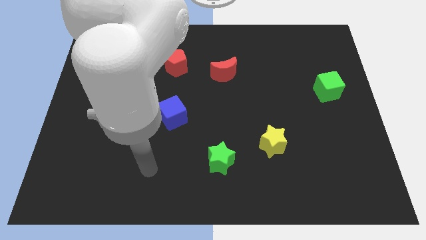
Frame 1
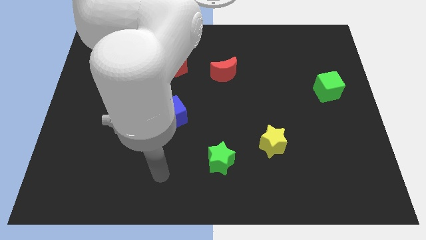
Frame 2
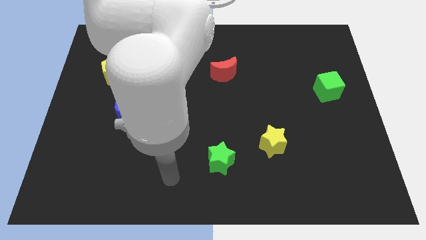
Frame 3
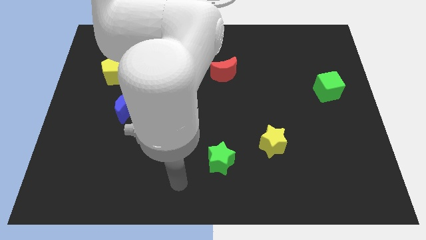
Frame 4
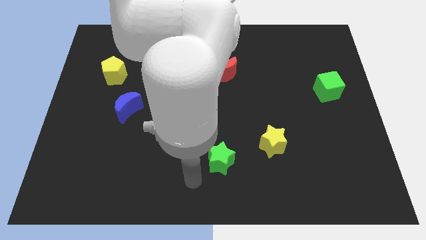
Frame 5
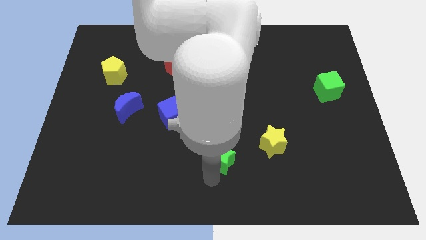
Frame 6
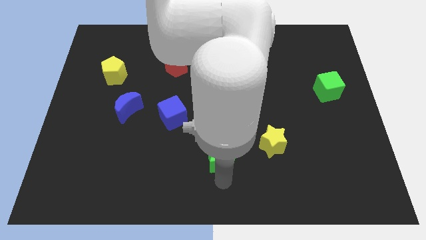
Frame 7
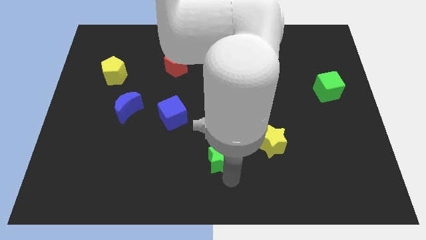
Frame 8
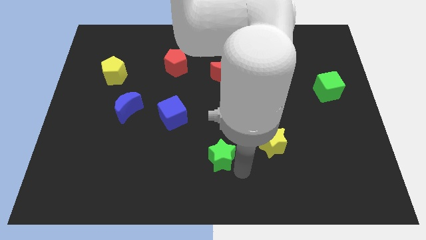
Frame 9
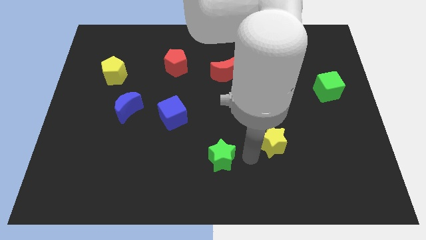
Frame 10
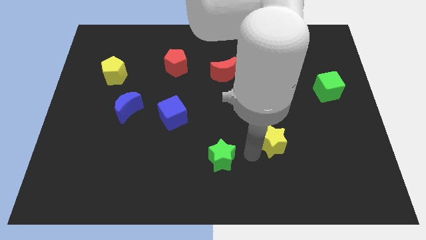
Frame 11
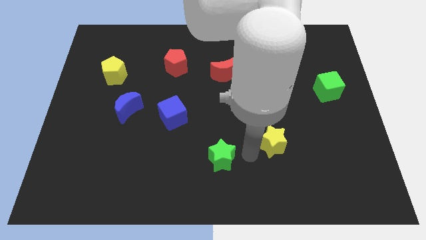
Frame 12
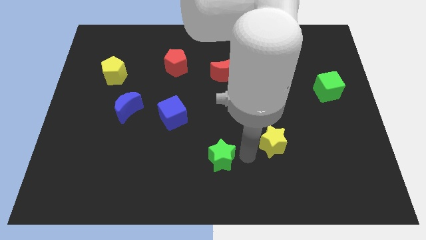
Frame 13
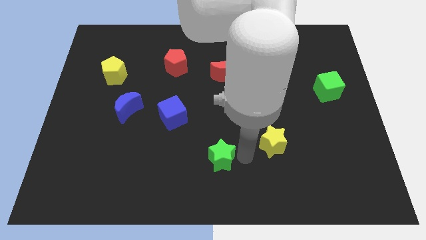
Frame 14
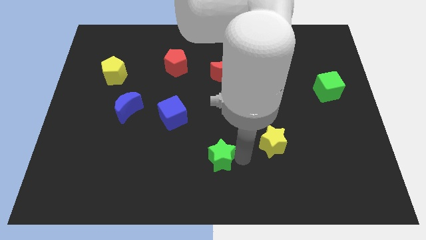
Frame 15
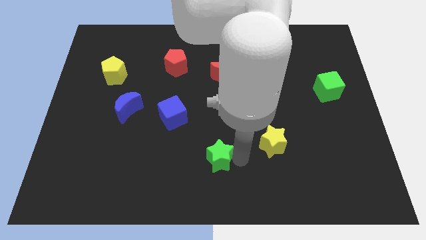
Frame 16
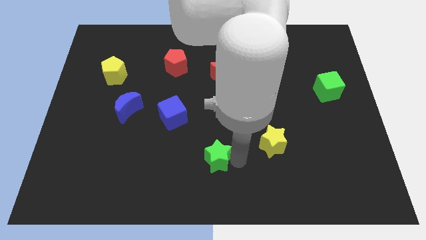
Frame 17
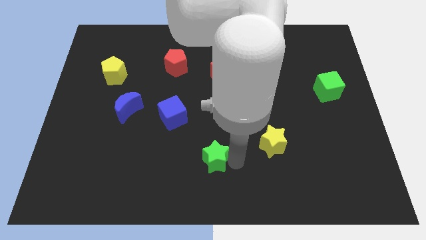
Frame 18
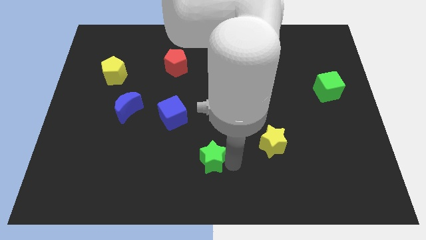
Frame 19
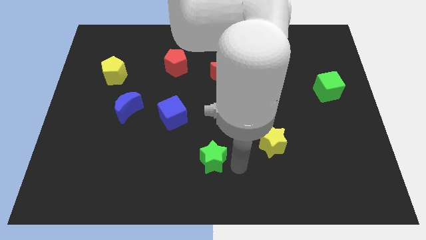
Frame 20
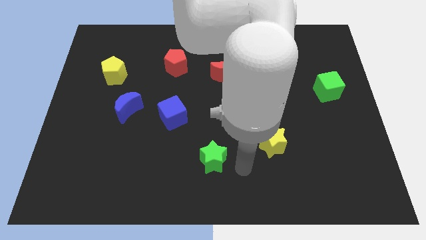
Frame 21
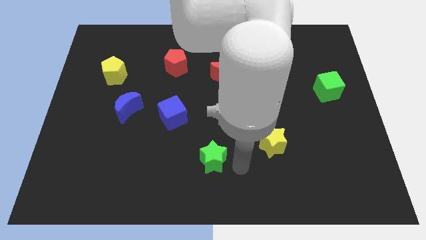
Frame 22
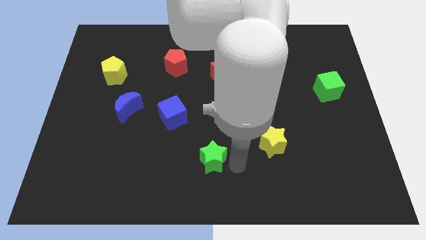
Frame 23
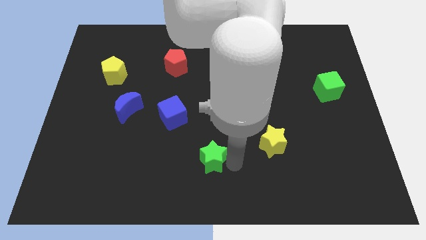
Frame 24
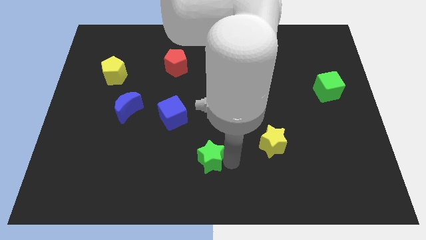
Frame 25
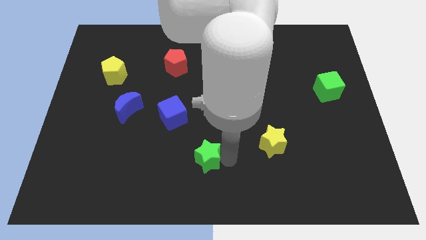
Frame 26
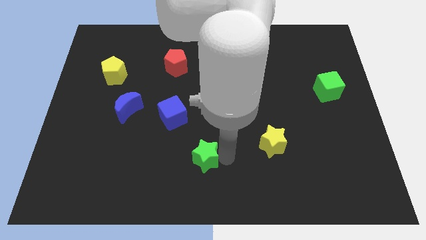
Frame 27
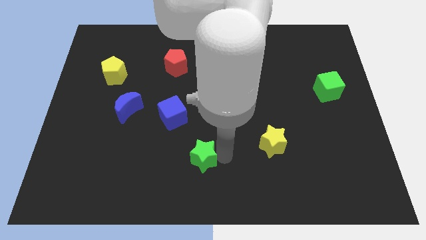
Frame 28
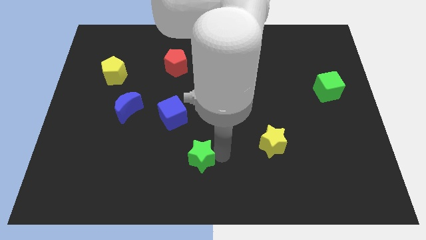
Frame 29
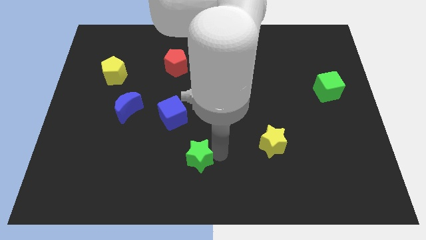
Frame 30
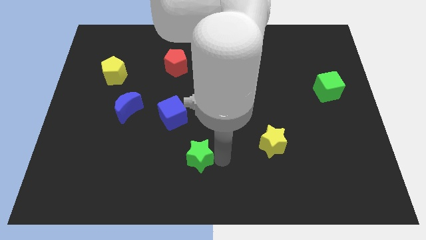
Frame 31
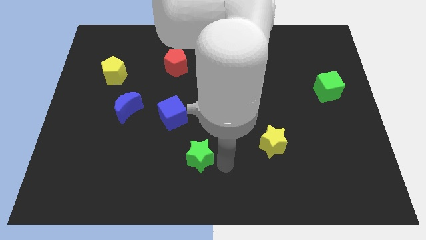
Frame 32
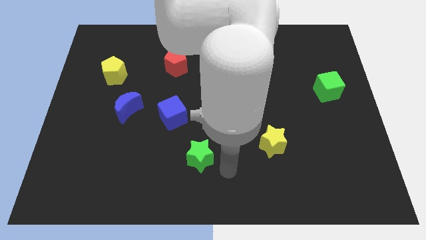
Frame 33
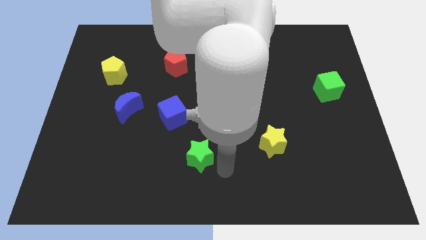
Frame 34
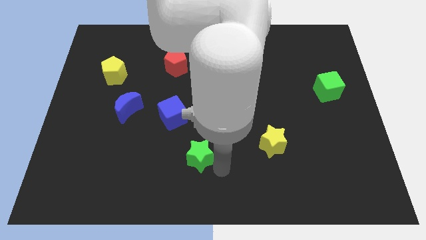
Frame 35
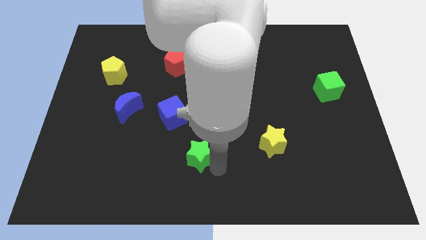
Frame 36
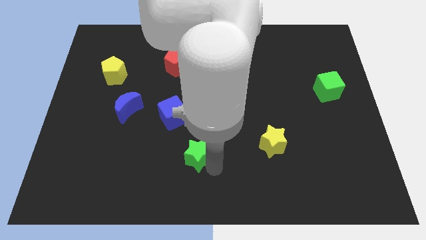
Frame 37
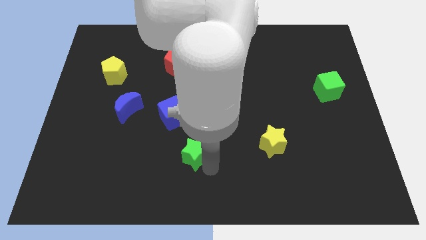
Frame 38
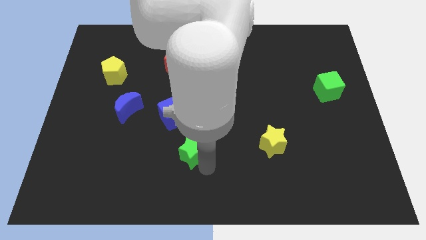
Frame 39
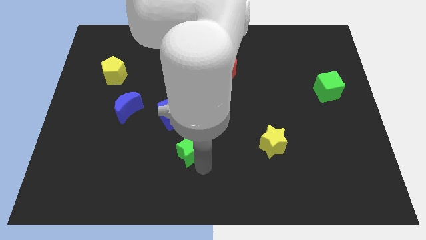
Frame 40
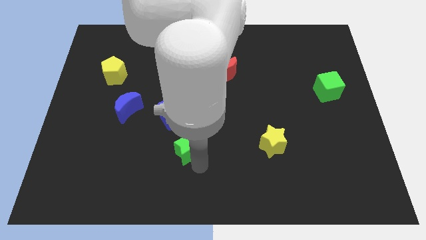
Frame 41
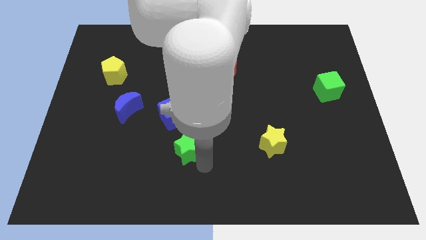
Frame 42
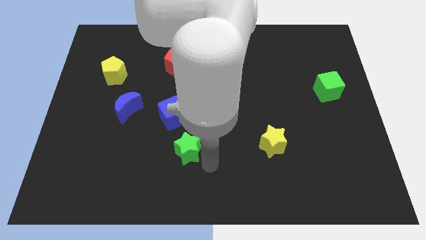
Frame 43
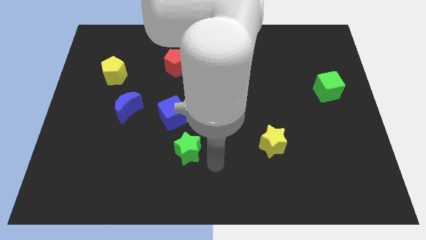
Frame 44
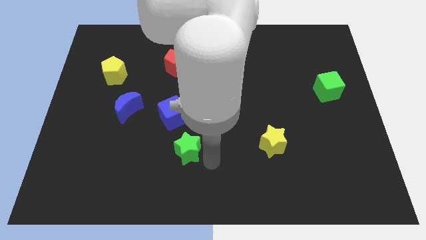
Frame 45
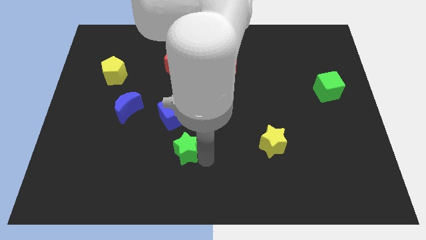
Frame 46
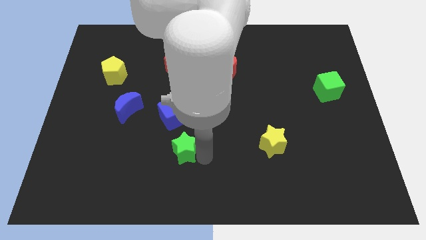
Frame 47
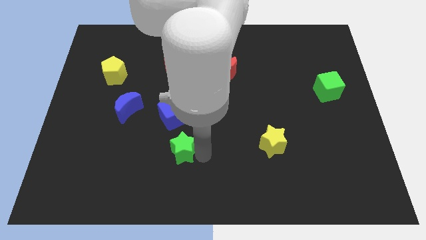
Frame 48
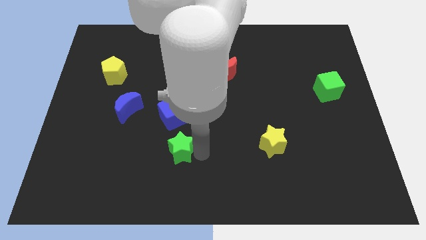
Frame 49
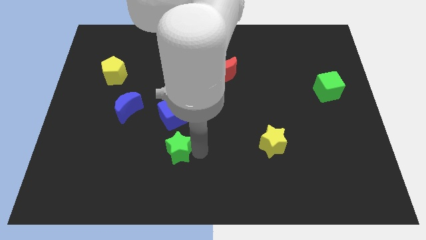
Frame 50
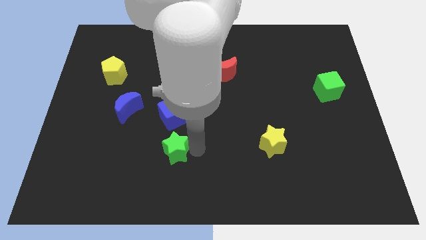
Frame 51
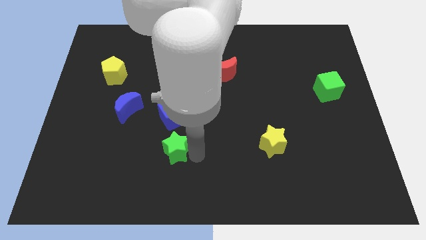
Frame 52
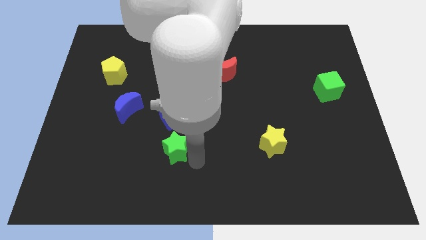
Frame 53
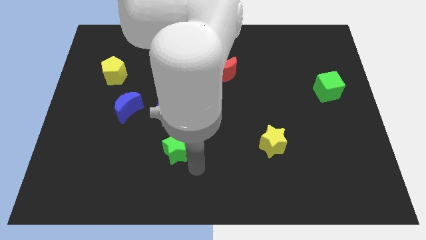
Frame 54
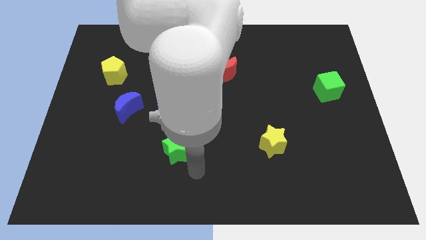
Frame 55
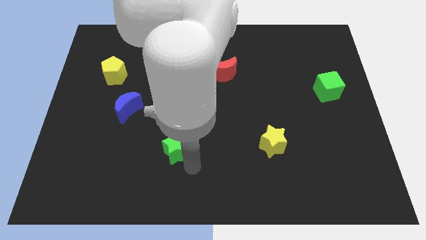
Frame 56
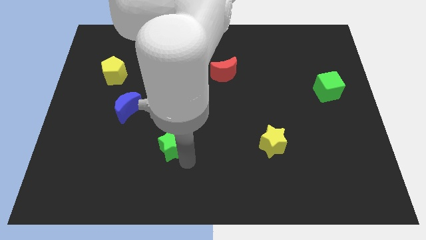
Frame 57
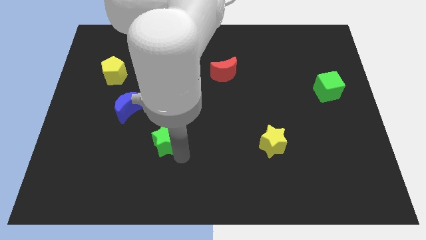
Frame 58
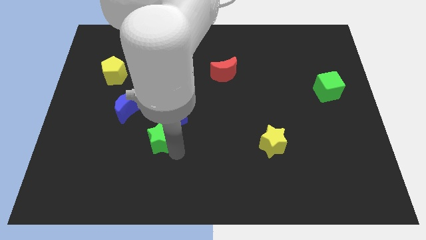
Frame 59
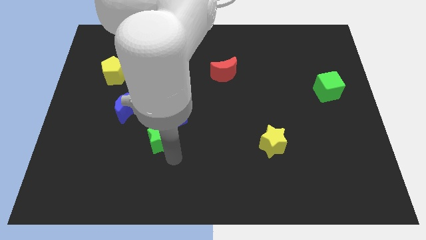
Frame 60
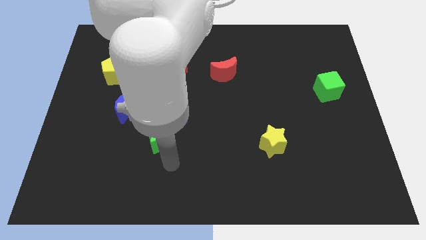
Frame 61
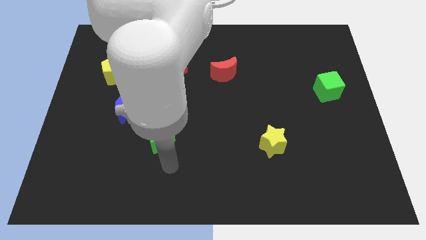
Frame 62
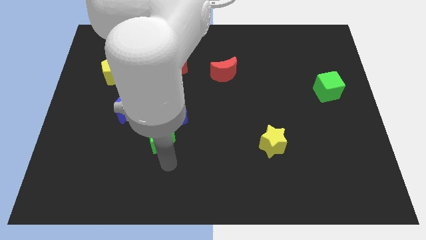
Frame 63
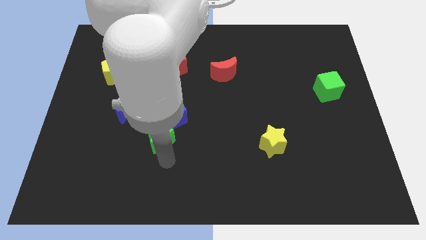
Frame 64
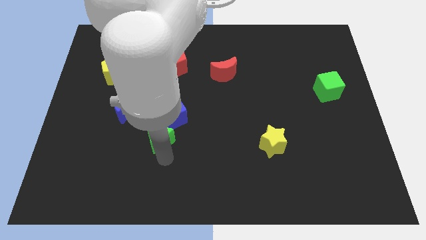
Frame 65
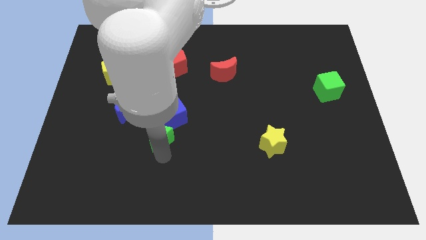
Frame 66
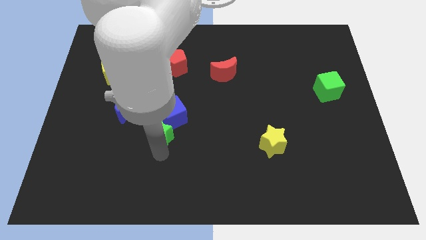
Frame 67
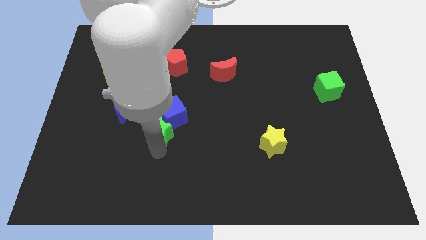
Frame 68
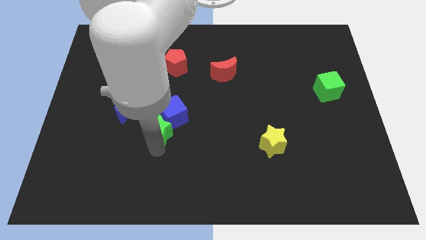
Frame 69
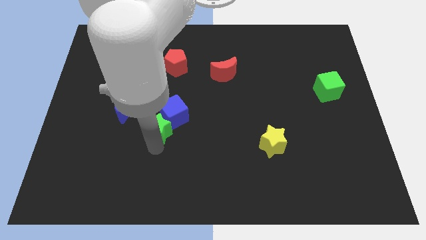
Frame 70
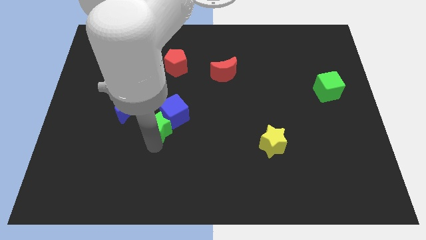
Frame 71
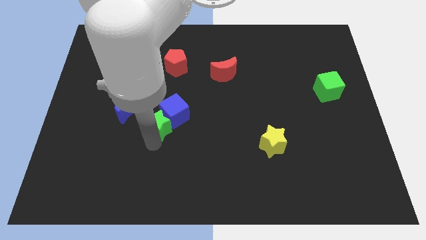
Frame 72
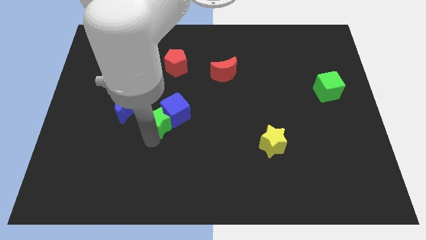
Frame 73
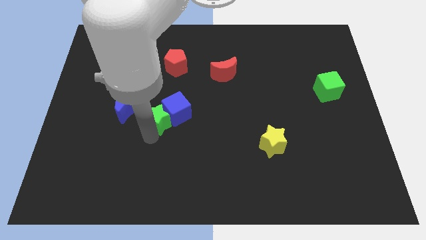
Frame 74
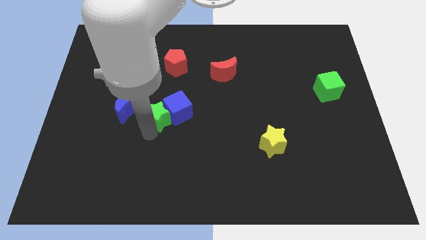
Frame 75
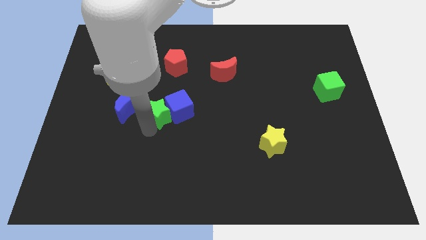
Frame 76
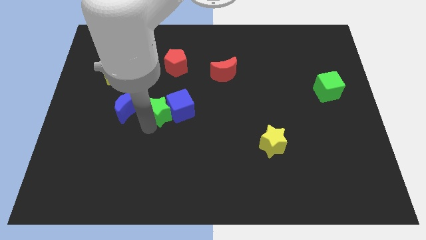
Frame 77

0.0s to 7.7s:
push the green star to the top left side of the blue cube
